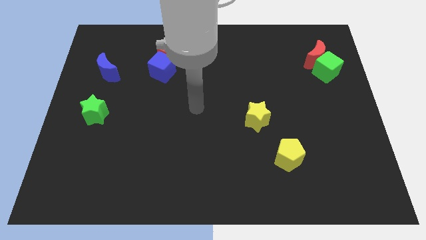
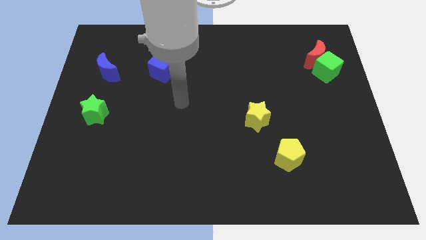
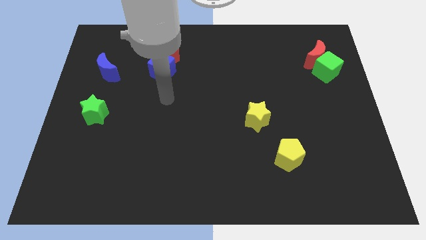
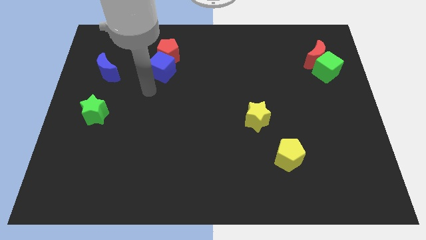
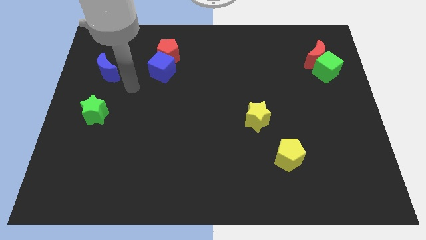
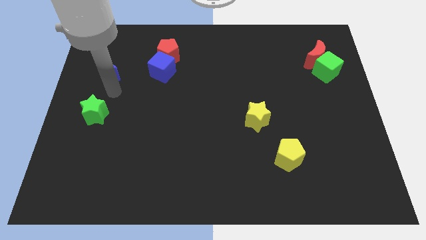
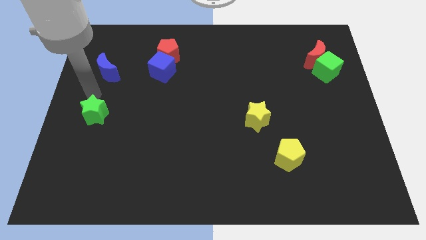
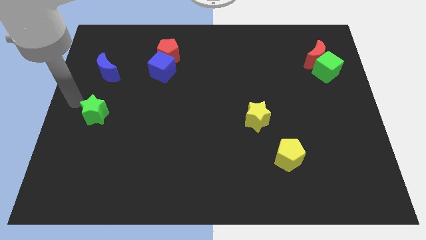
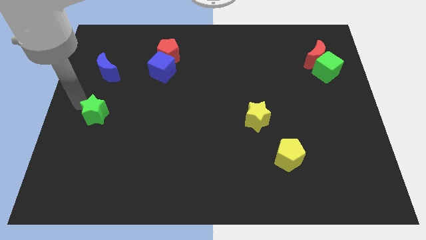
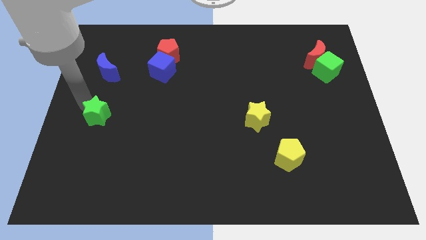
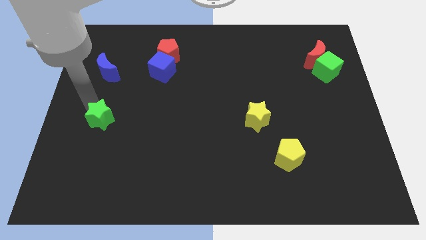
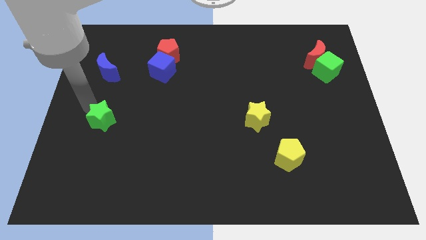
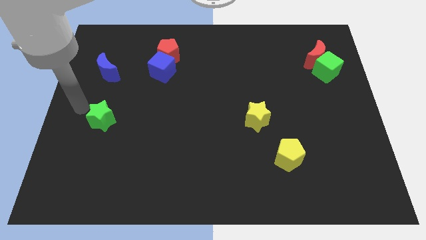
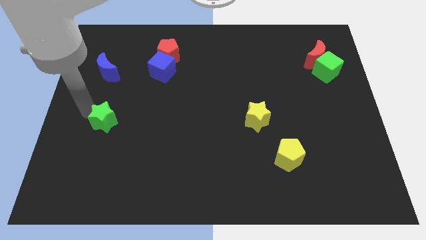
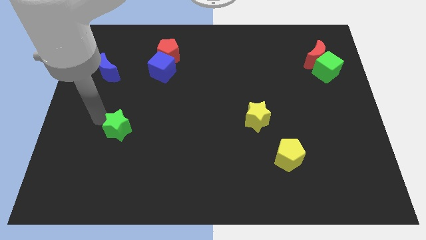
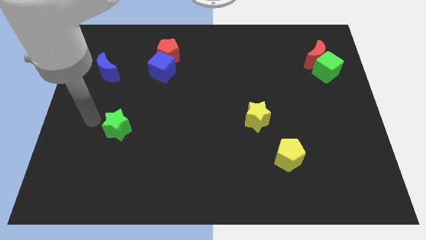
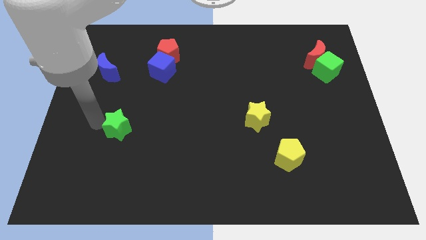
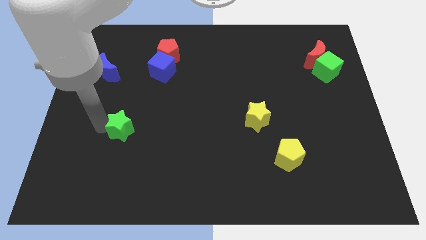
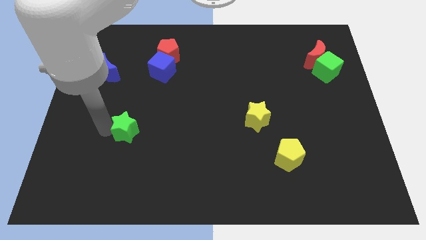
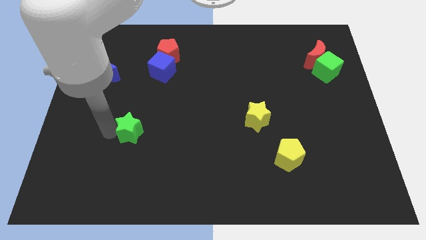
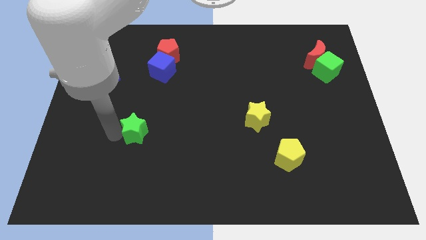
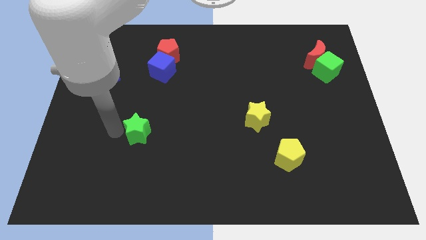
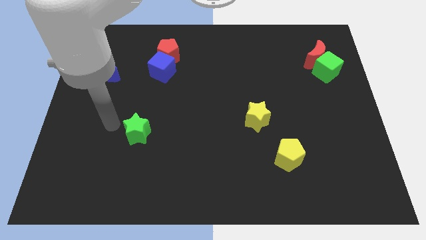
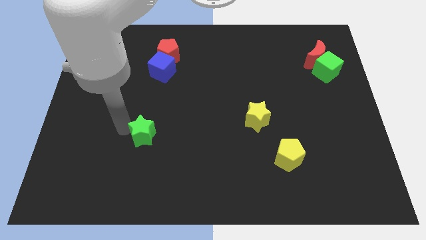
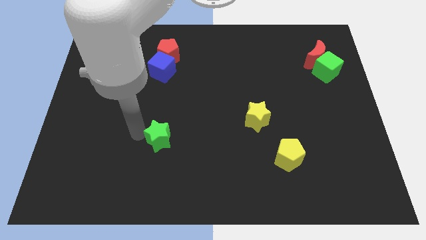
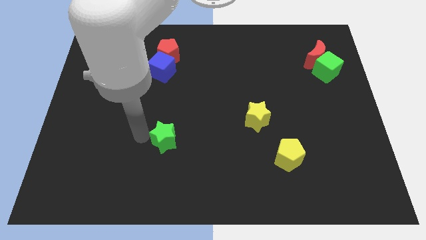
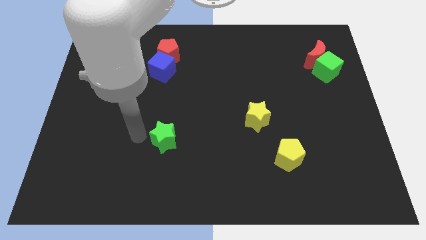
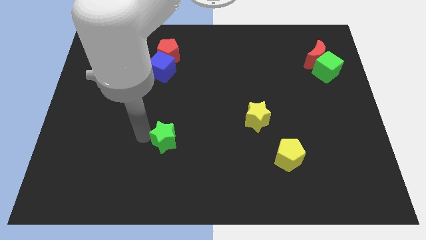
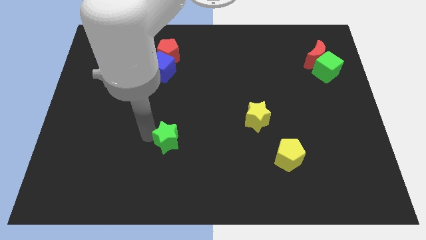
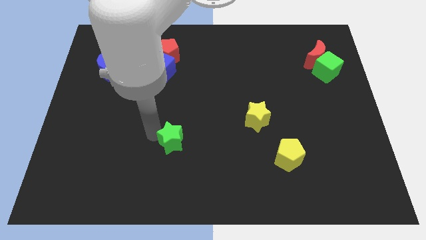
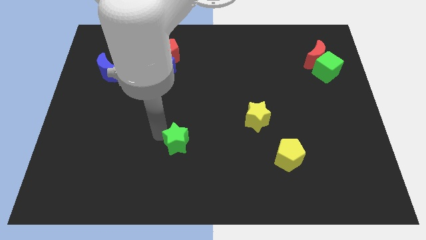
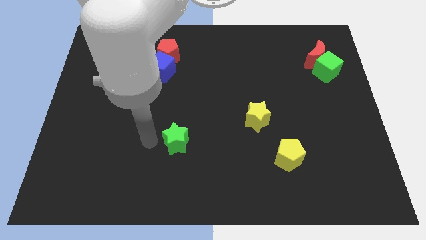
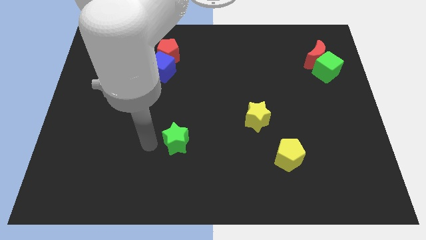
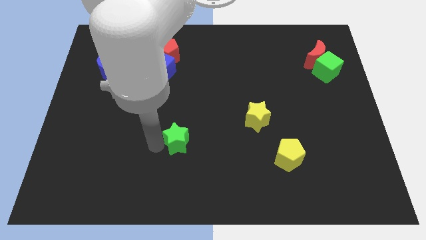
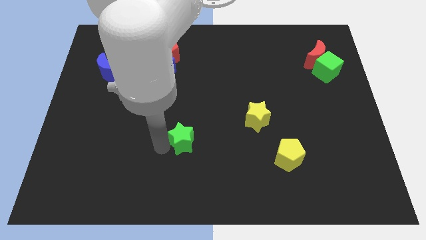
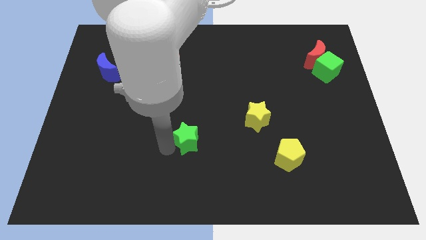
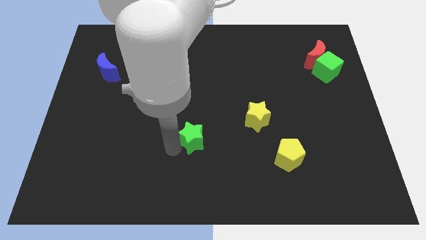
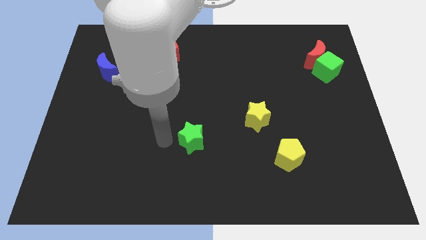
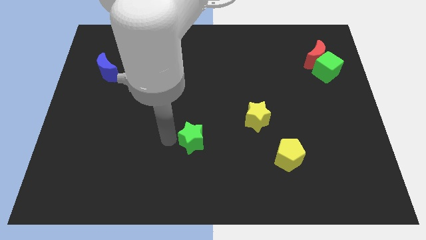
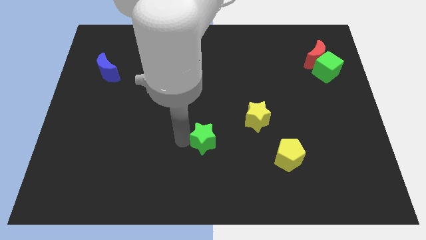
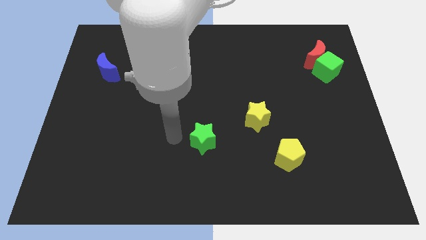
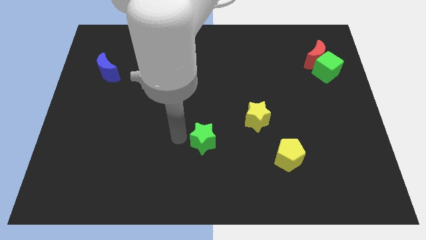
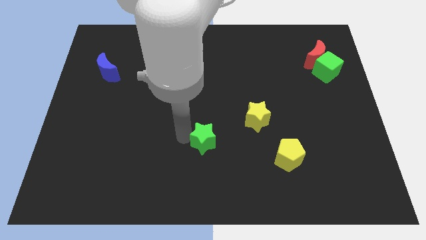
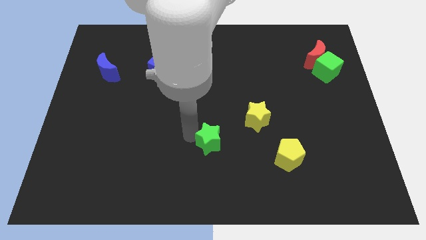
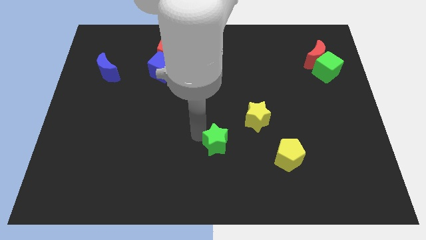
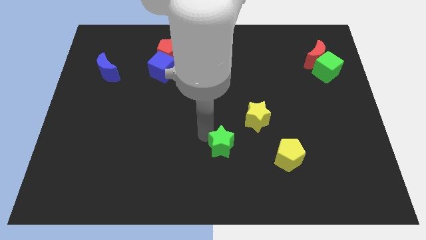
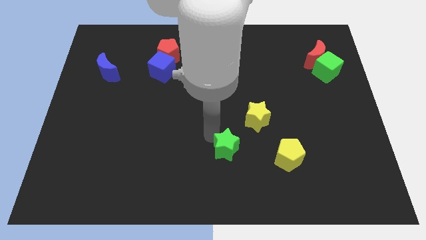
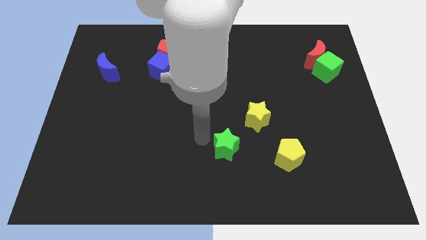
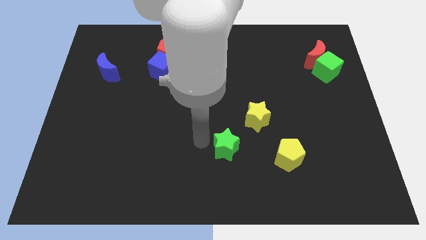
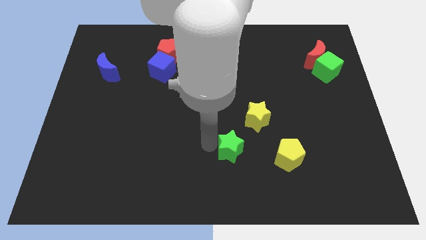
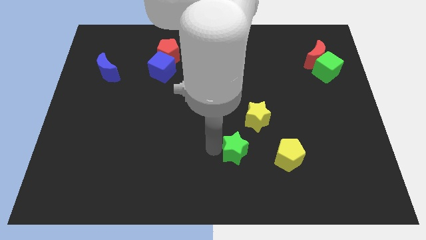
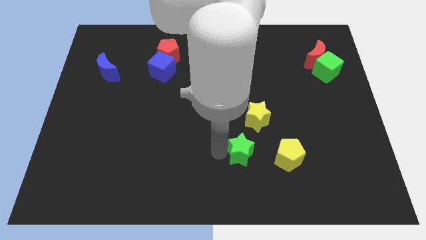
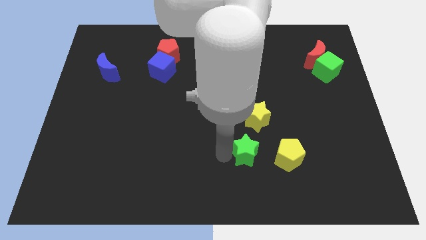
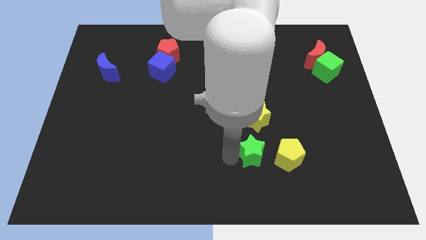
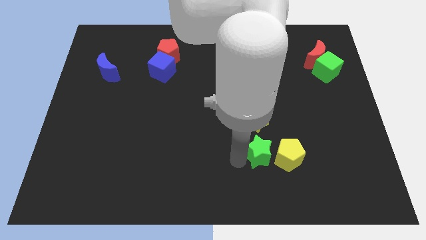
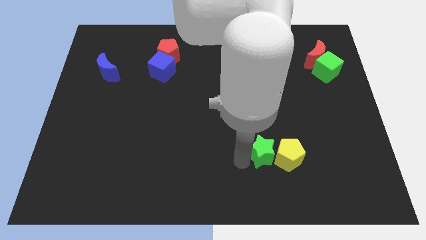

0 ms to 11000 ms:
push the green star to the yellow pentagon

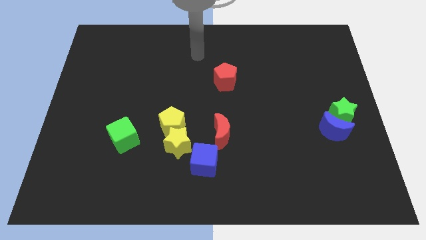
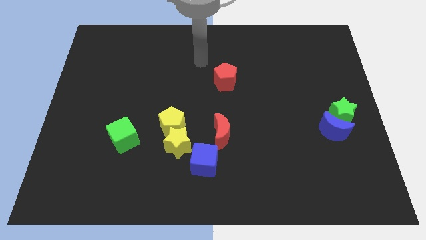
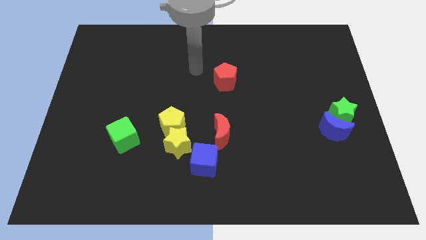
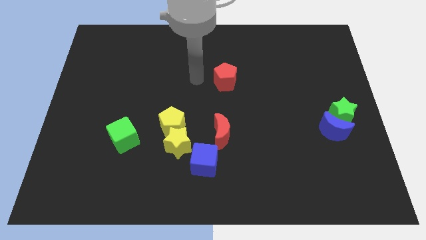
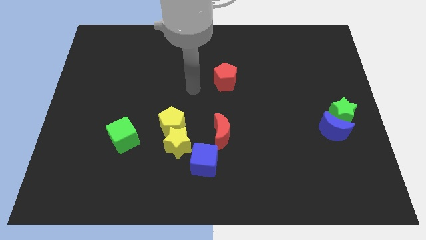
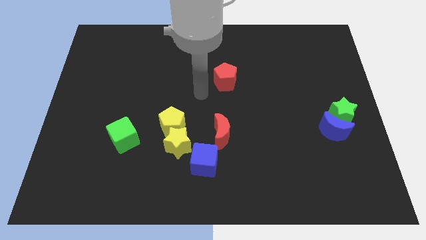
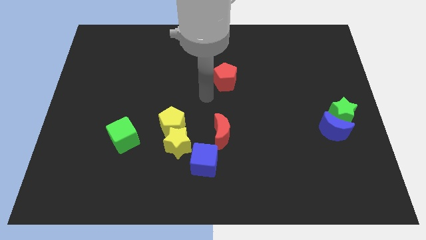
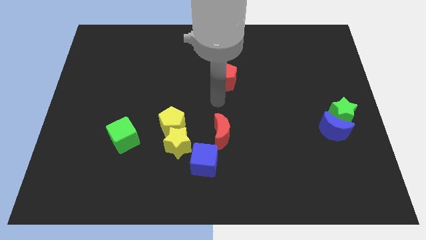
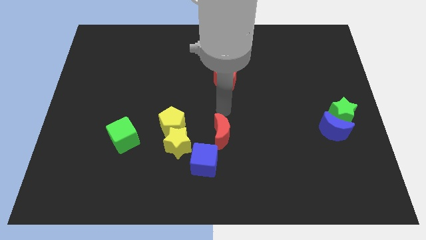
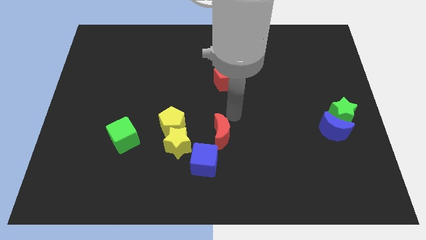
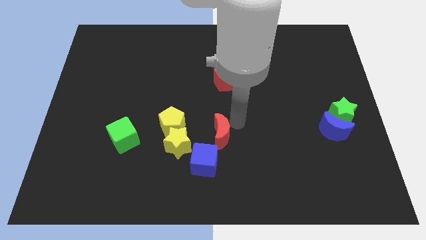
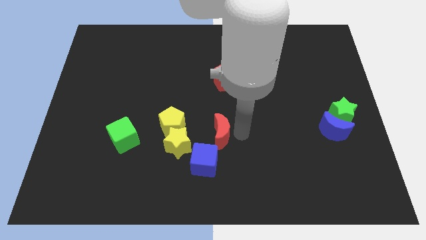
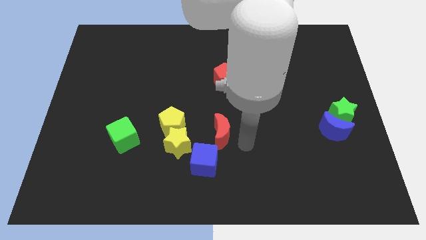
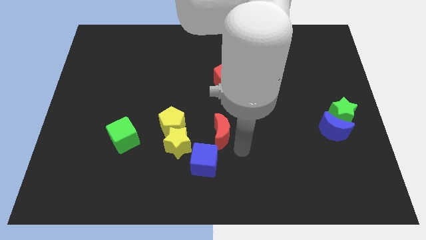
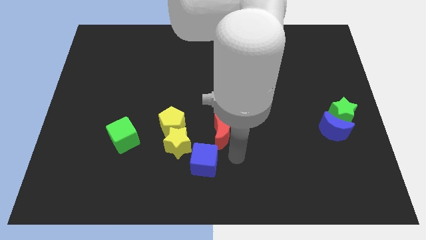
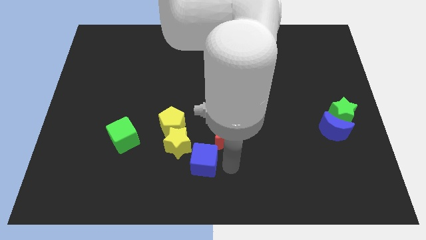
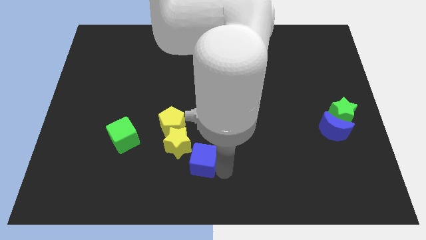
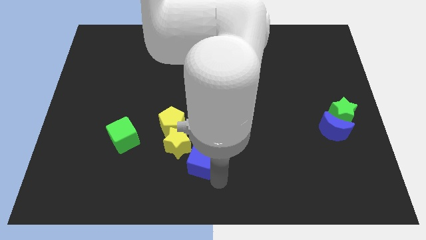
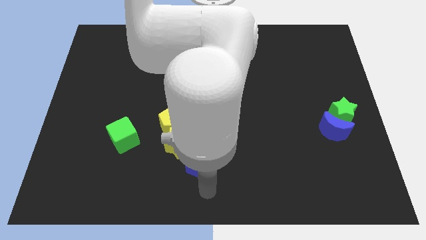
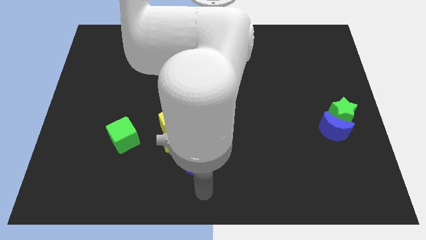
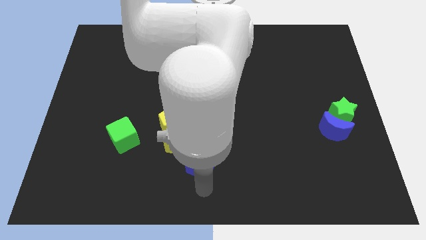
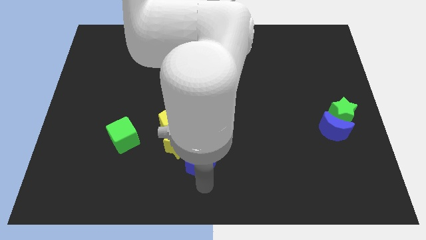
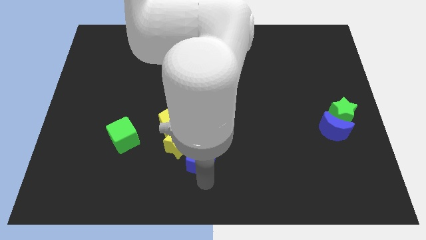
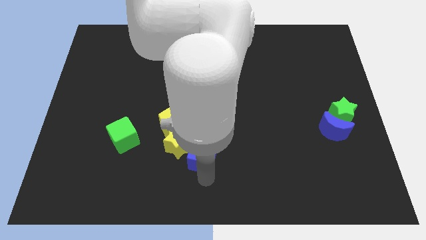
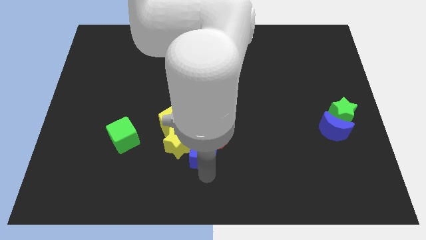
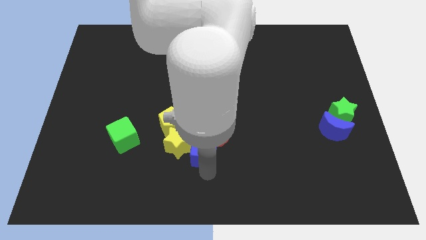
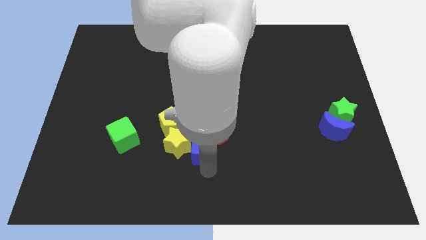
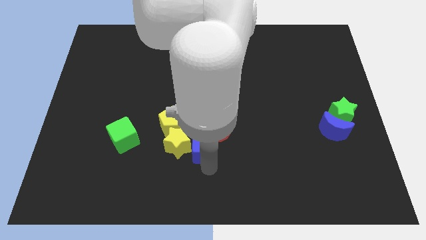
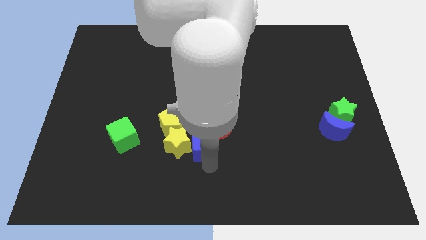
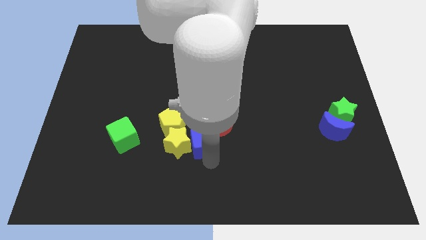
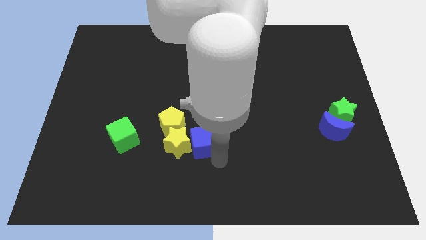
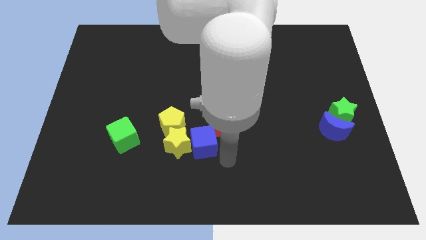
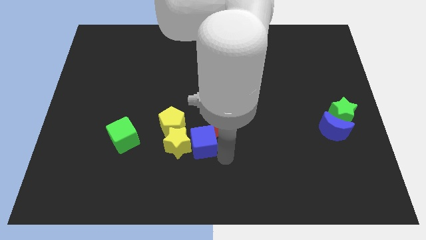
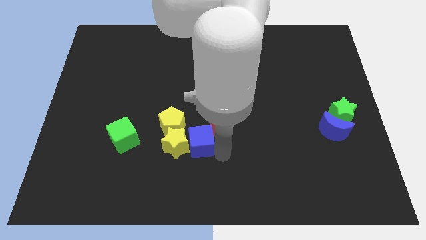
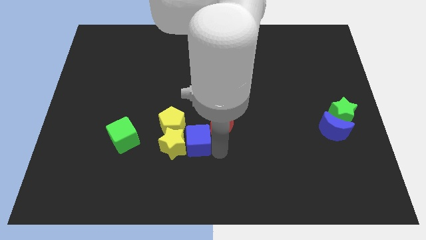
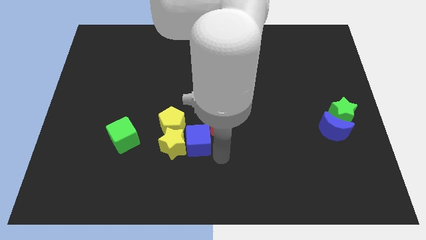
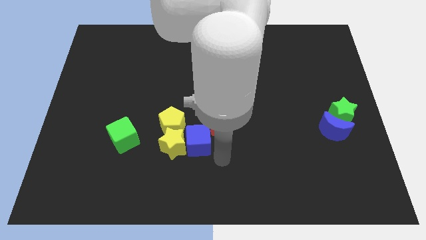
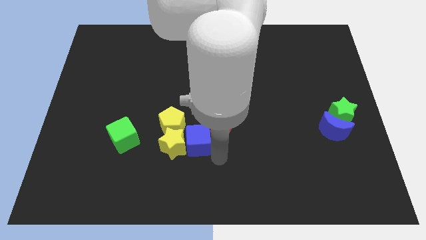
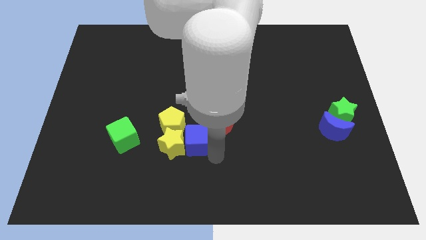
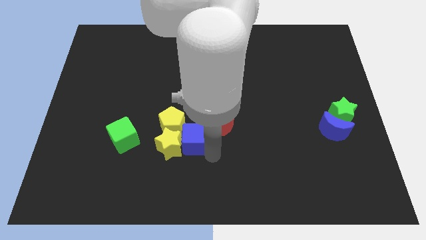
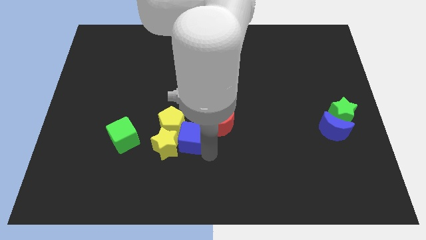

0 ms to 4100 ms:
put the blue cube close to the yellow pentagon
